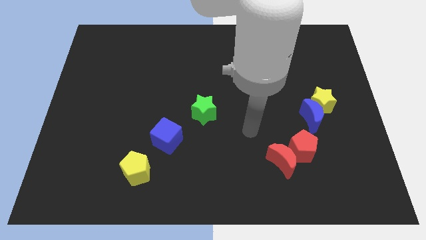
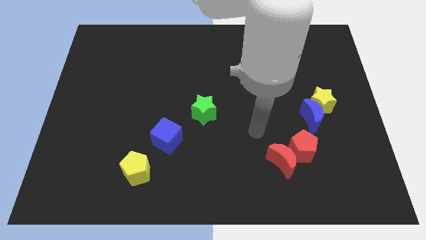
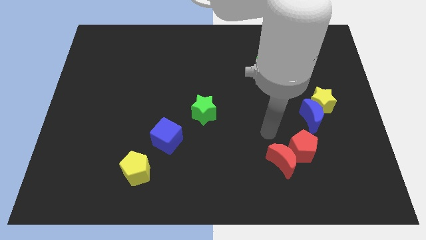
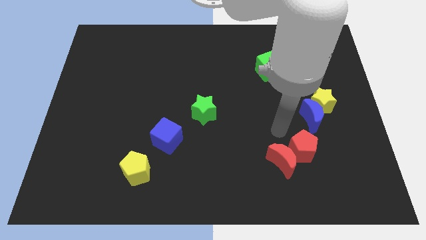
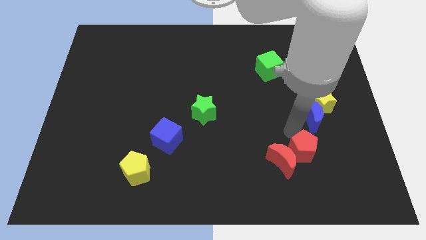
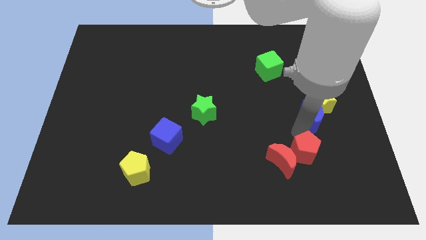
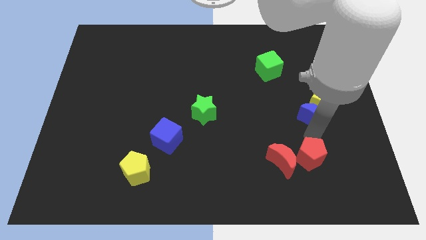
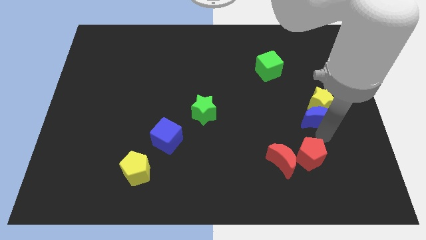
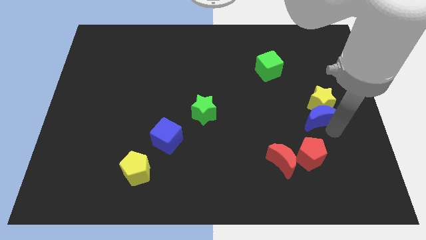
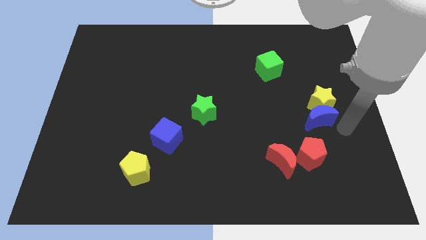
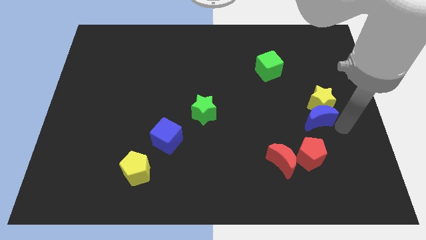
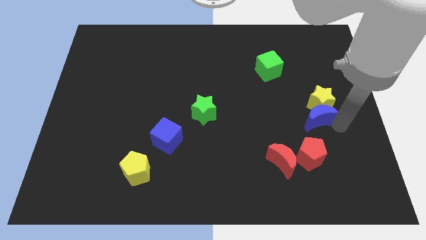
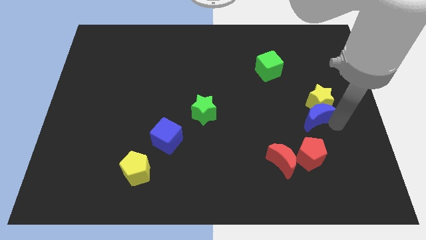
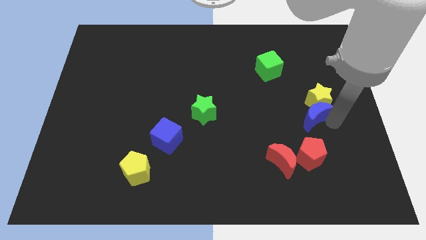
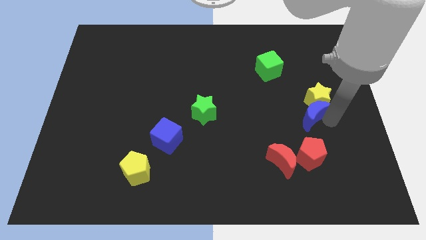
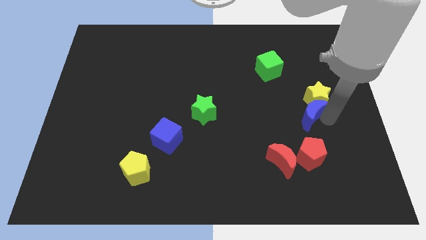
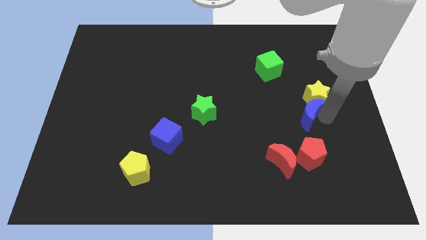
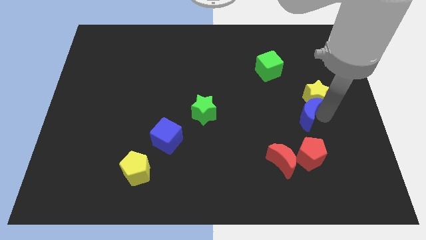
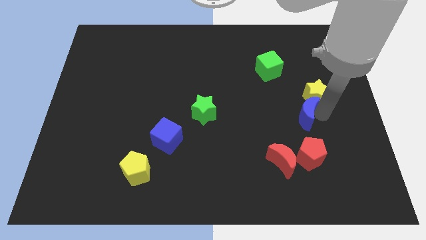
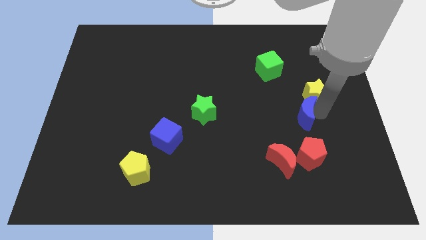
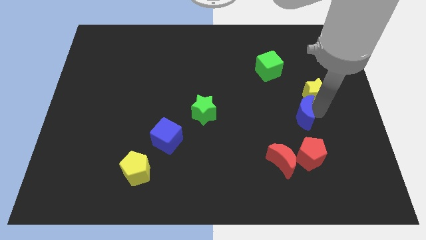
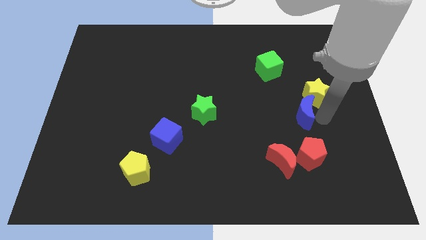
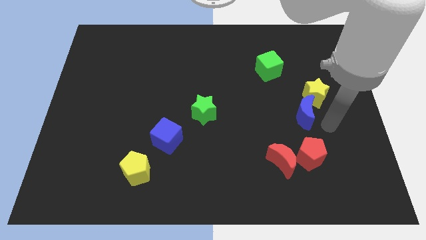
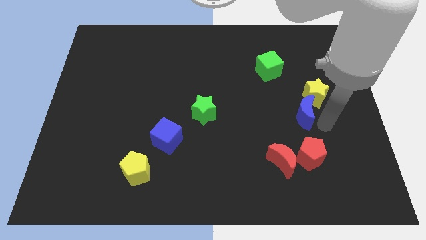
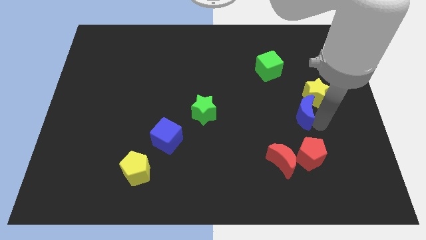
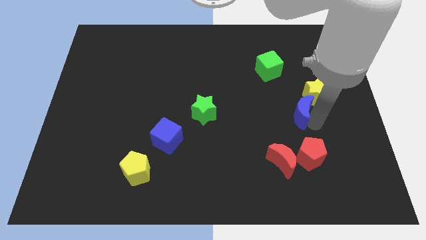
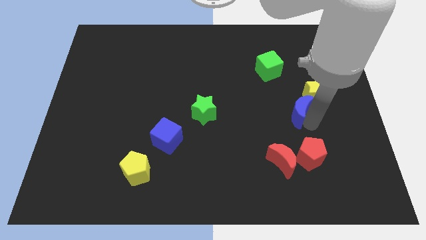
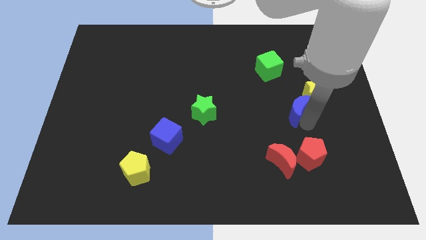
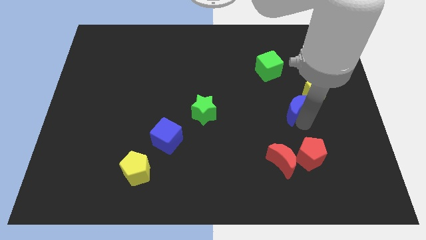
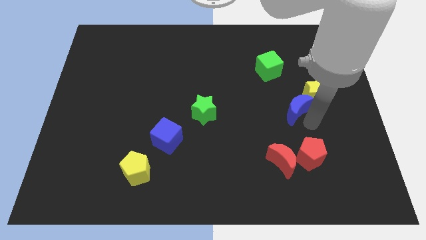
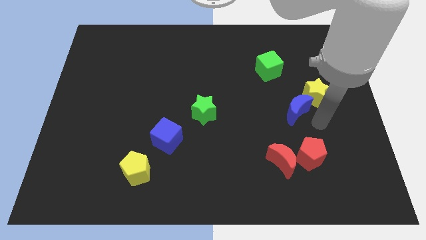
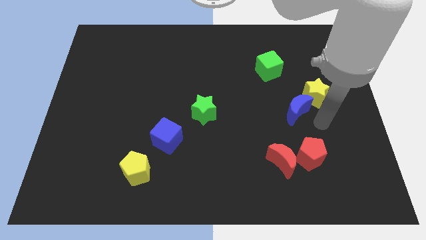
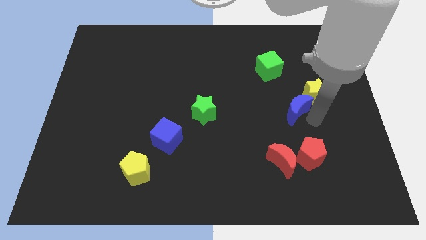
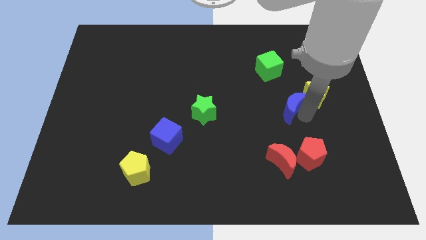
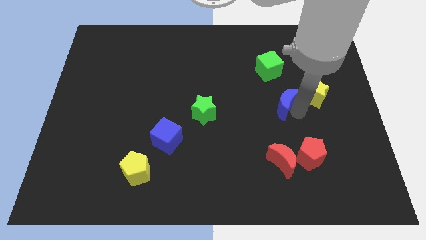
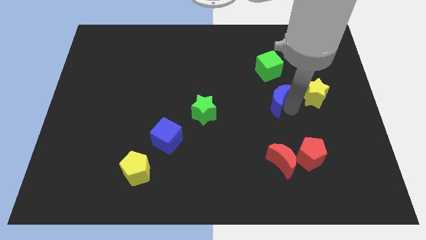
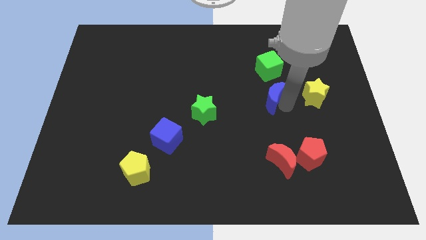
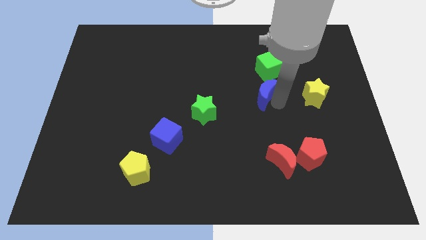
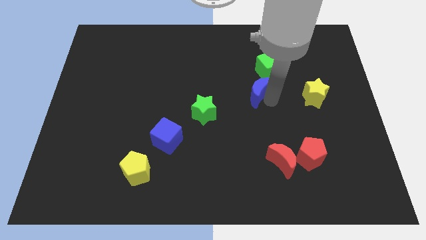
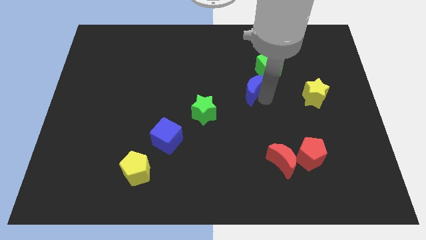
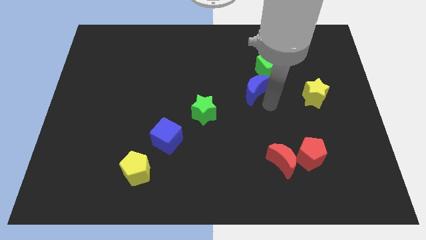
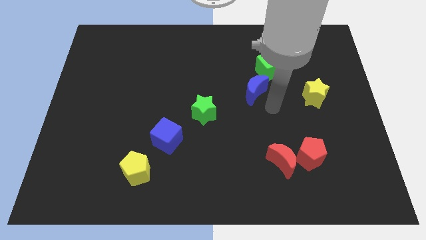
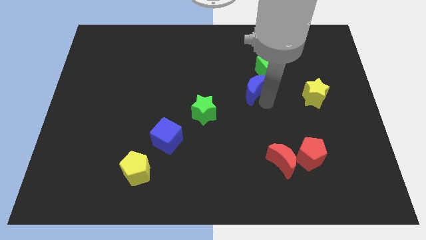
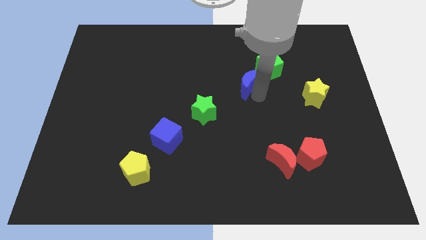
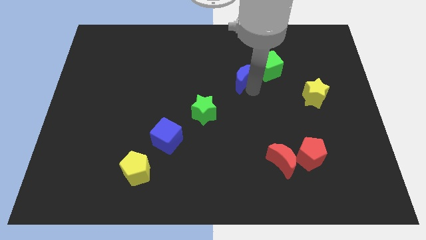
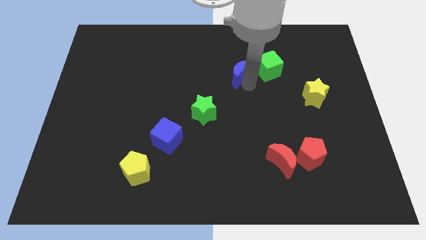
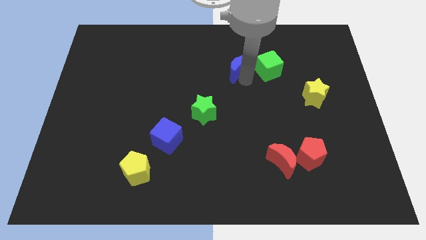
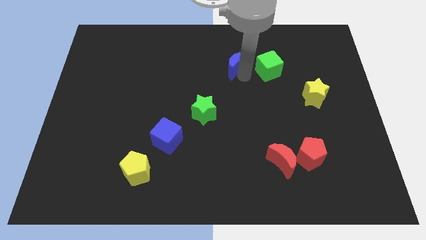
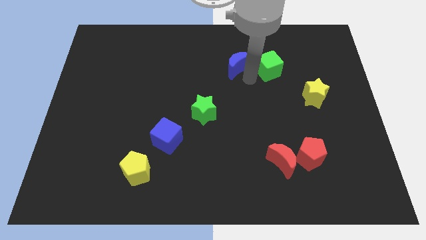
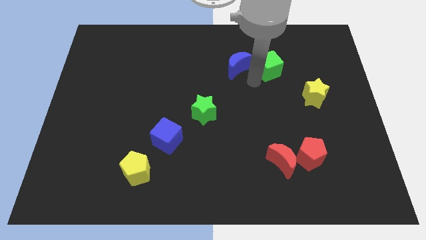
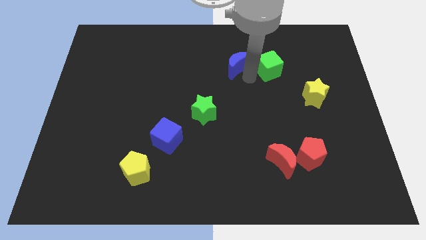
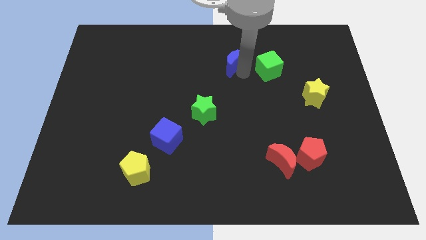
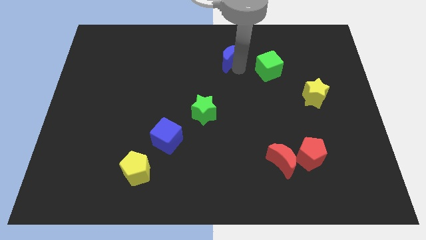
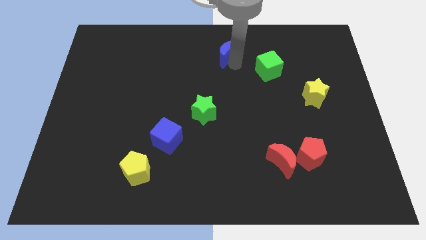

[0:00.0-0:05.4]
slide the blue moon to the towards your base

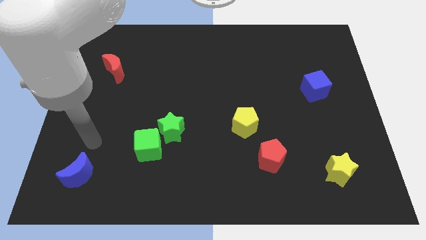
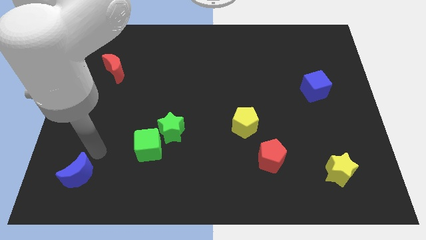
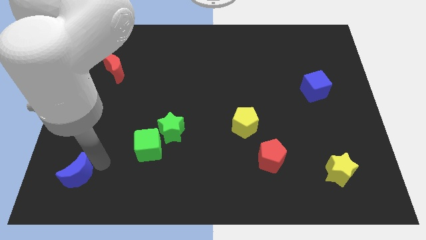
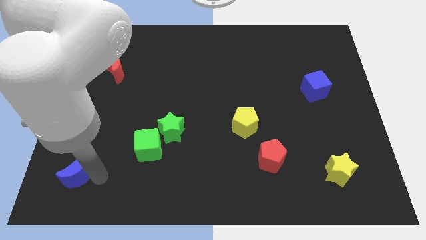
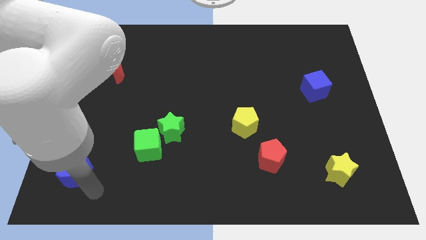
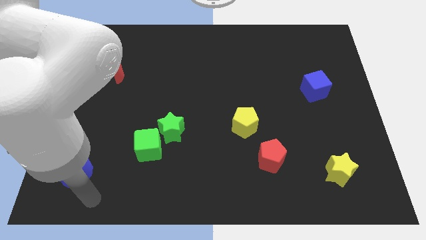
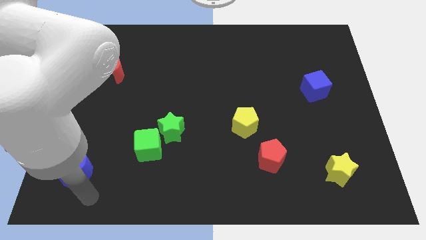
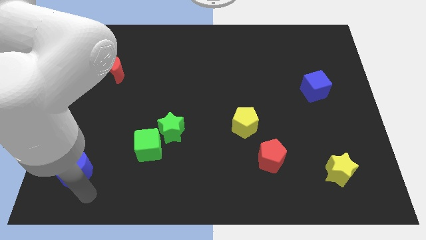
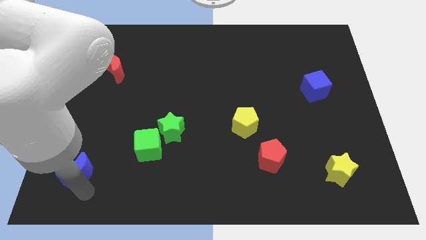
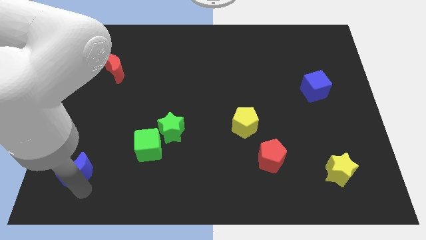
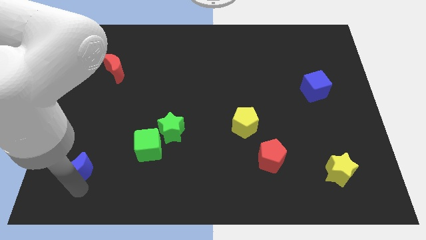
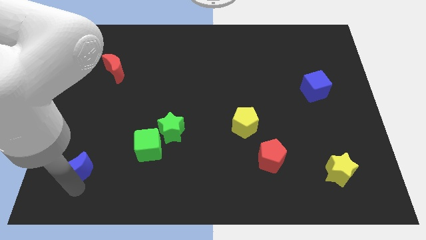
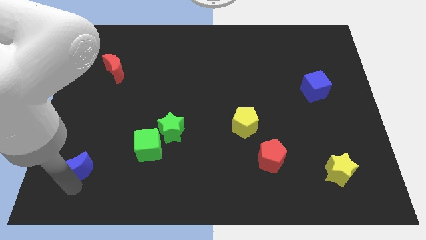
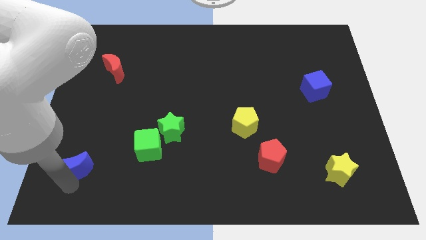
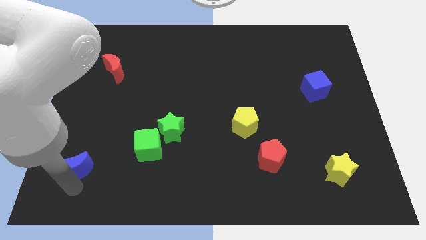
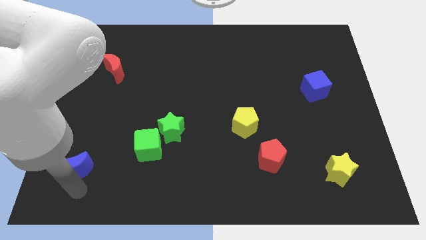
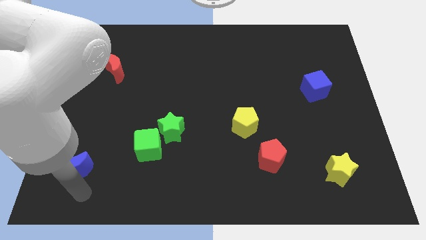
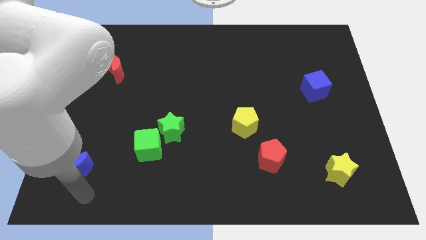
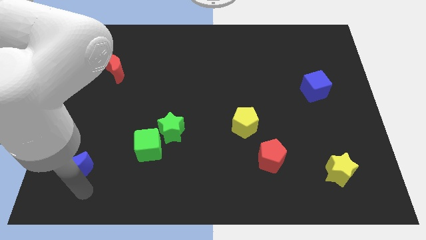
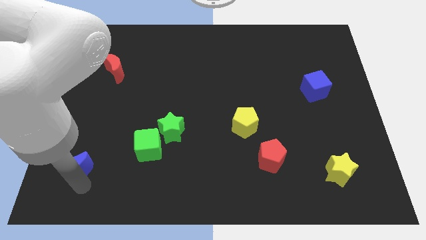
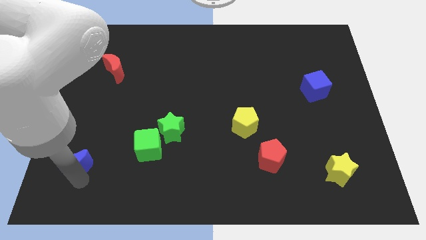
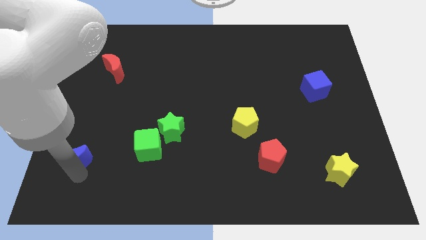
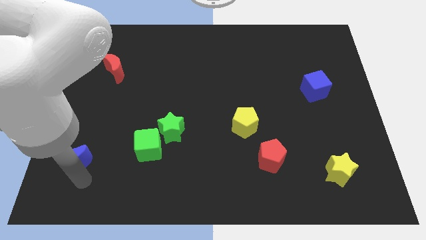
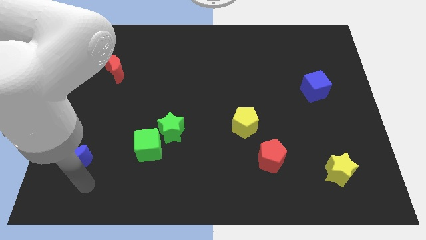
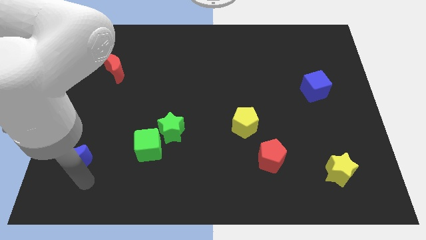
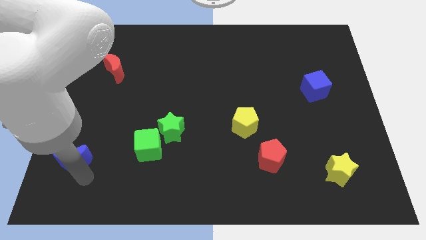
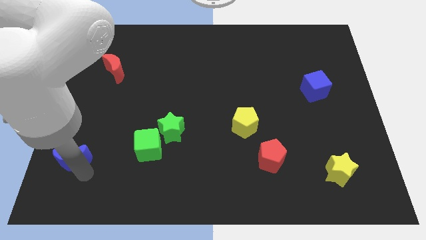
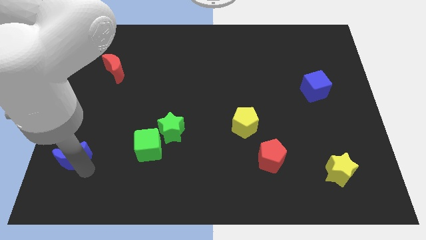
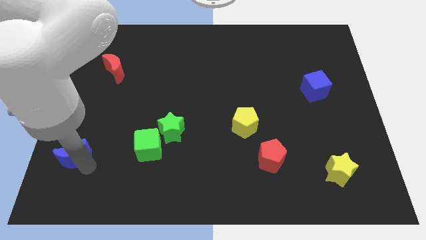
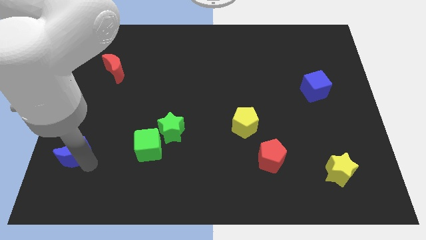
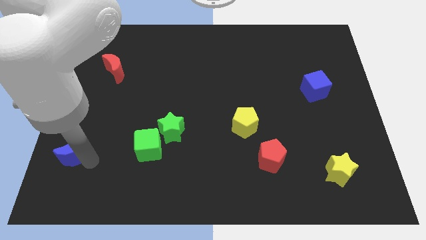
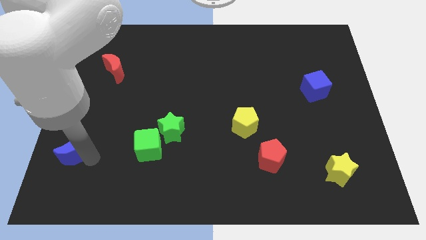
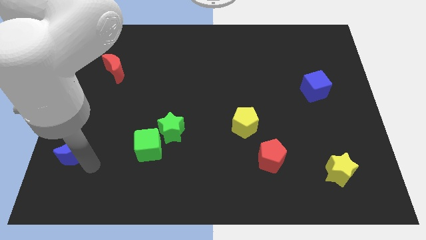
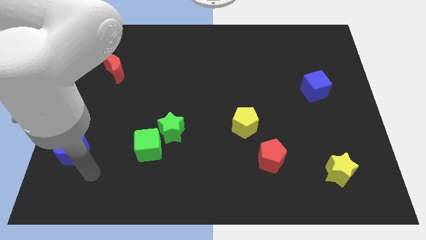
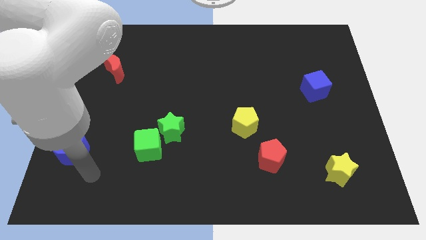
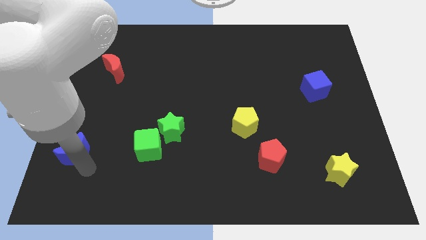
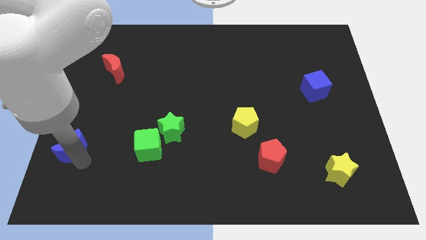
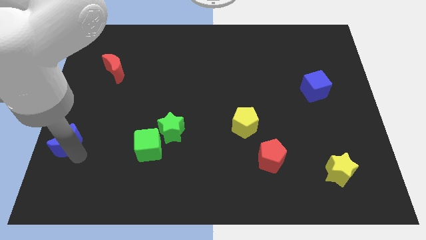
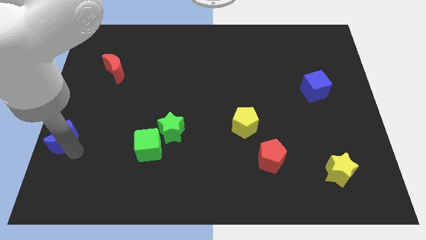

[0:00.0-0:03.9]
put the blue moon to the left side
